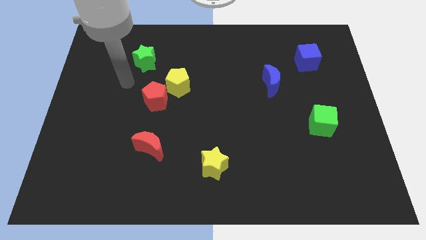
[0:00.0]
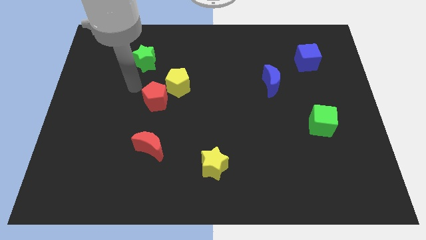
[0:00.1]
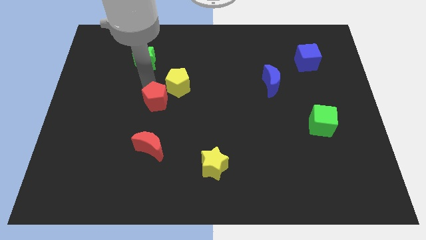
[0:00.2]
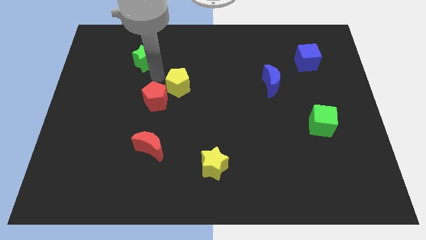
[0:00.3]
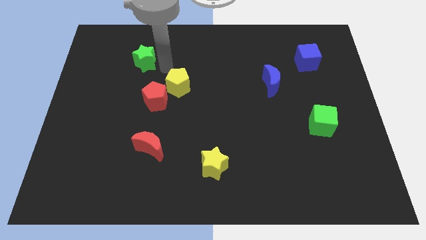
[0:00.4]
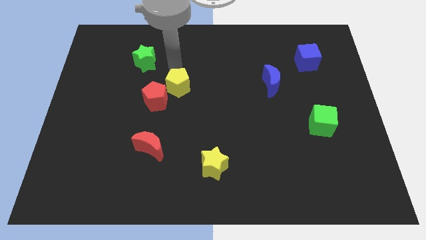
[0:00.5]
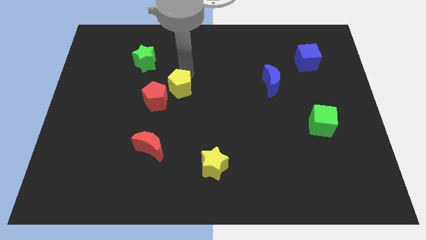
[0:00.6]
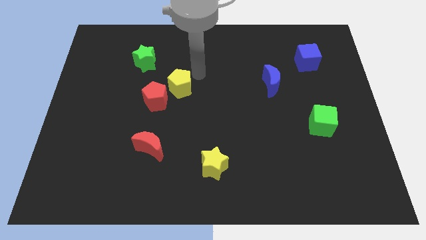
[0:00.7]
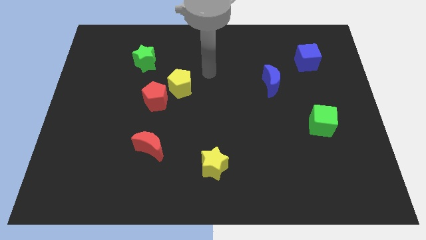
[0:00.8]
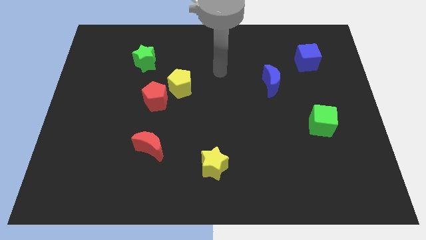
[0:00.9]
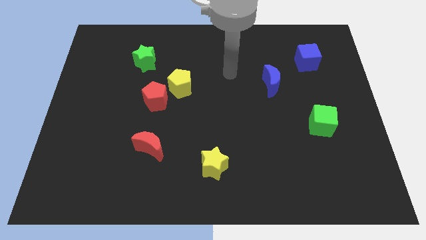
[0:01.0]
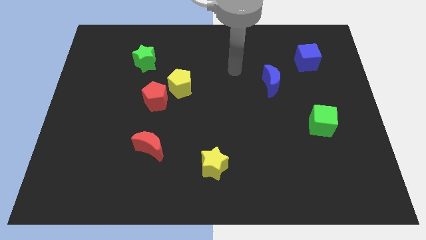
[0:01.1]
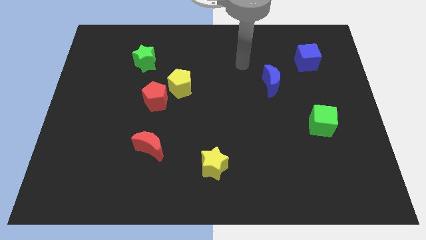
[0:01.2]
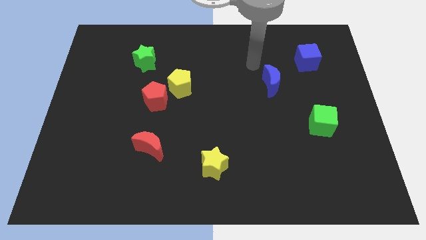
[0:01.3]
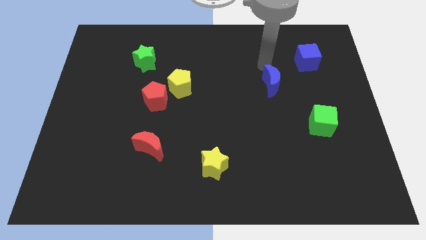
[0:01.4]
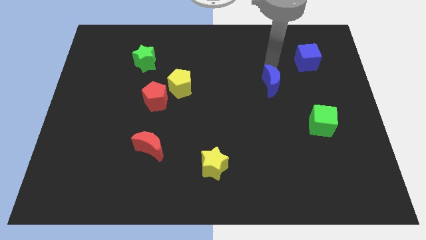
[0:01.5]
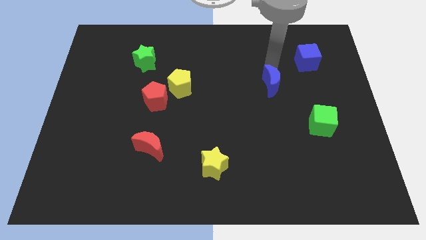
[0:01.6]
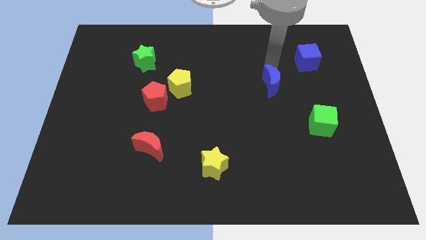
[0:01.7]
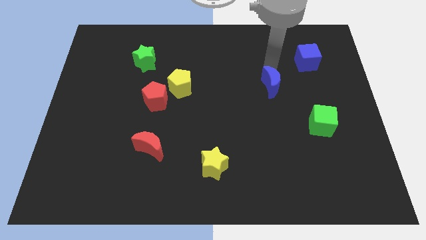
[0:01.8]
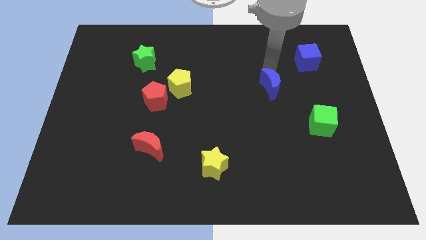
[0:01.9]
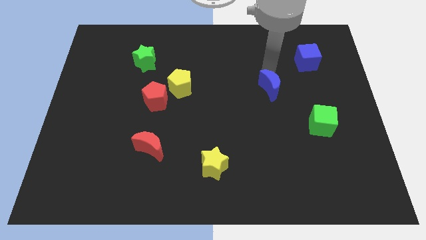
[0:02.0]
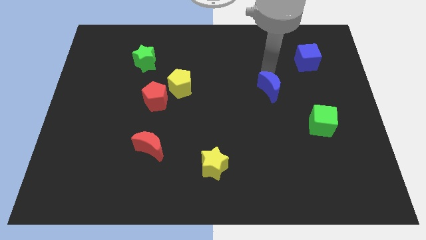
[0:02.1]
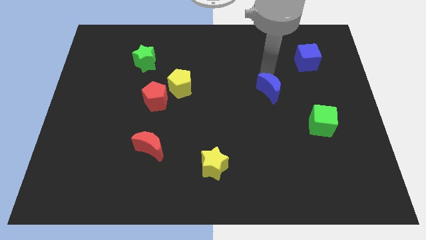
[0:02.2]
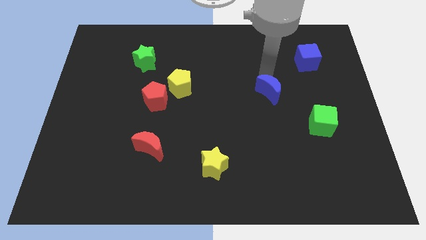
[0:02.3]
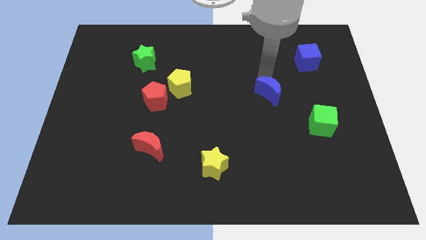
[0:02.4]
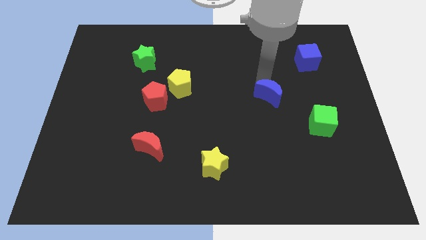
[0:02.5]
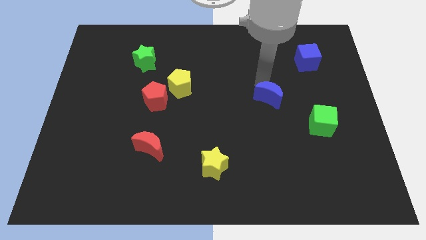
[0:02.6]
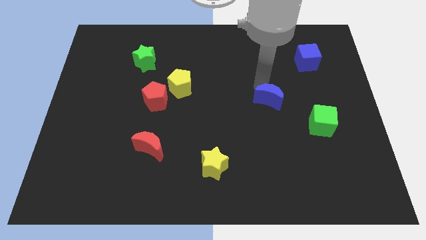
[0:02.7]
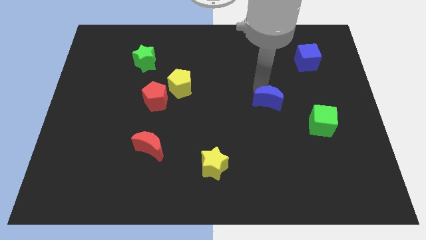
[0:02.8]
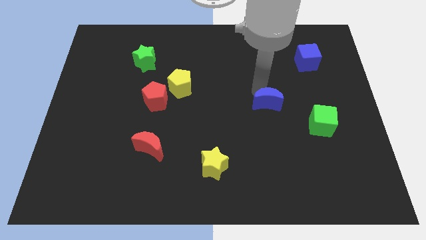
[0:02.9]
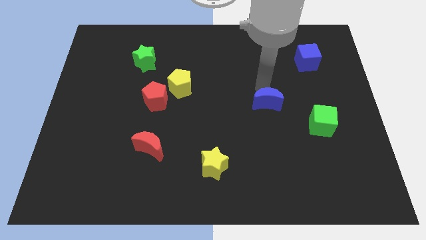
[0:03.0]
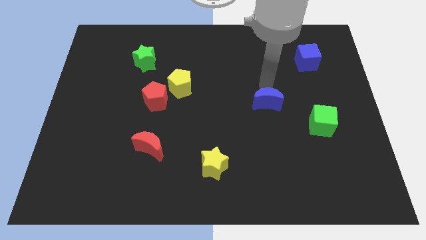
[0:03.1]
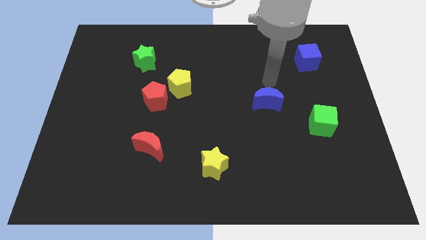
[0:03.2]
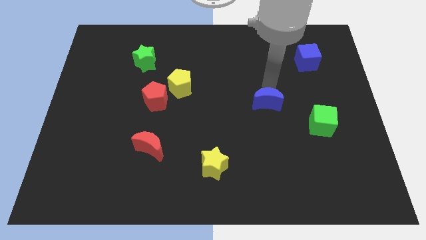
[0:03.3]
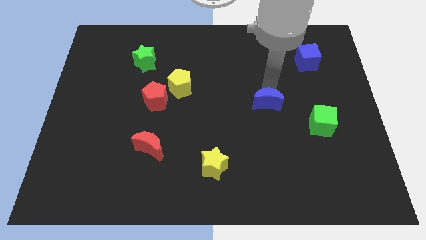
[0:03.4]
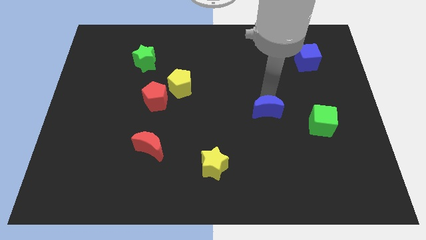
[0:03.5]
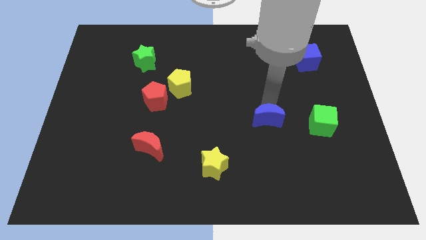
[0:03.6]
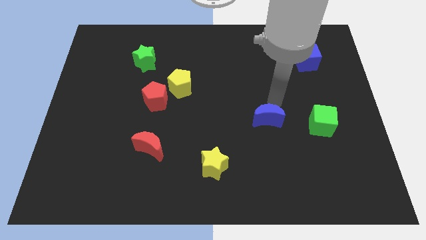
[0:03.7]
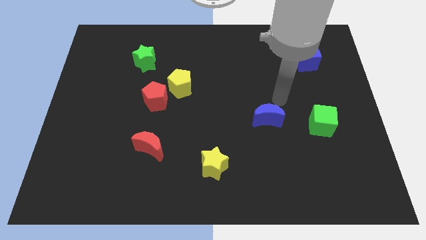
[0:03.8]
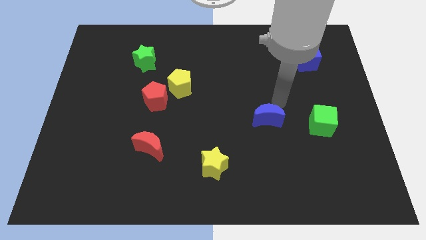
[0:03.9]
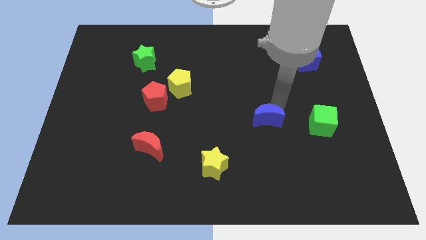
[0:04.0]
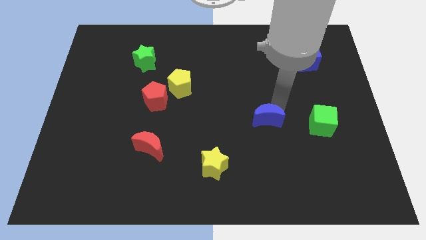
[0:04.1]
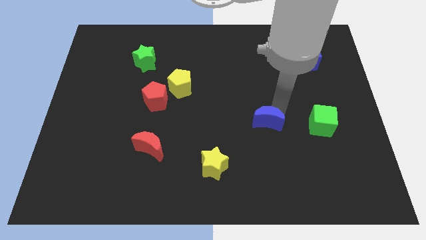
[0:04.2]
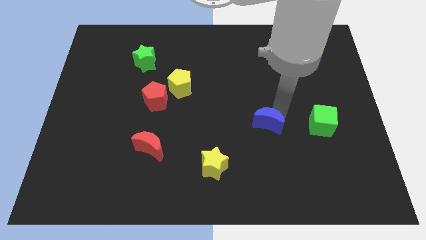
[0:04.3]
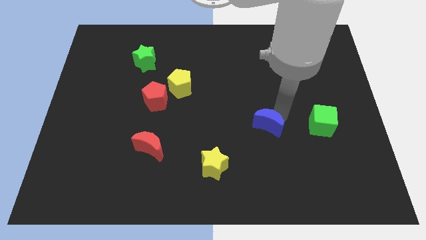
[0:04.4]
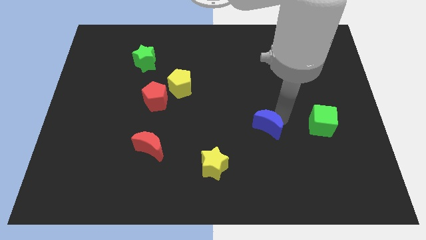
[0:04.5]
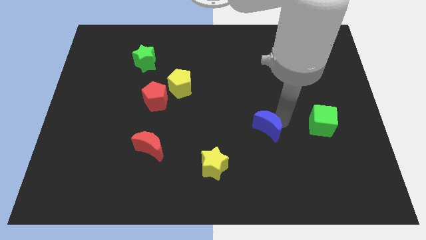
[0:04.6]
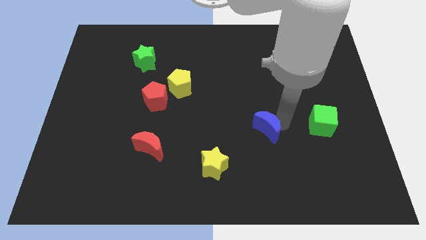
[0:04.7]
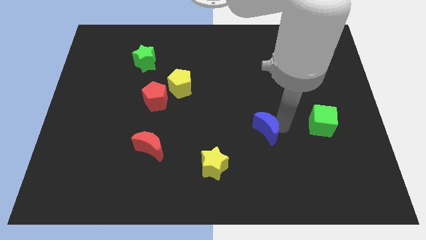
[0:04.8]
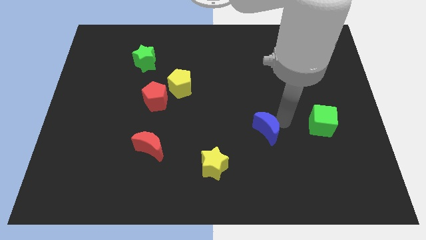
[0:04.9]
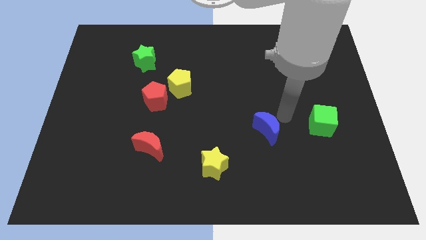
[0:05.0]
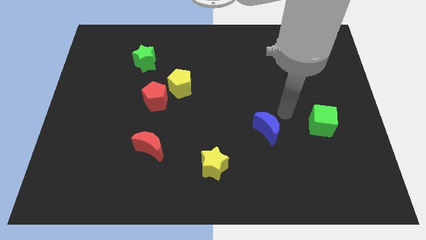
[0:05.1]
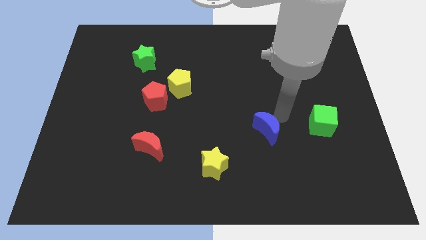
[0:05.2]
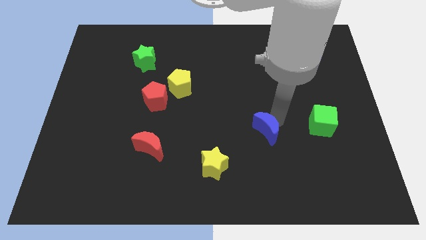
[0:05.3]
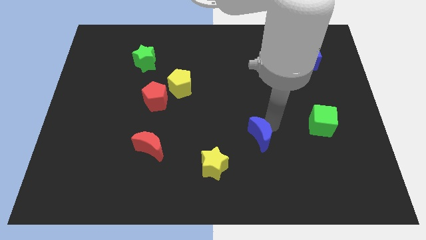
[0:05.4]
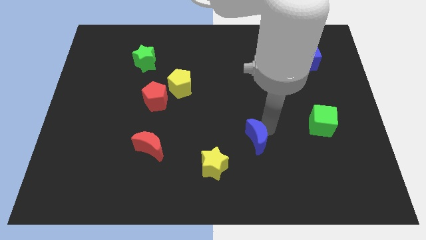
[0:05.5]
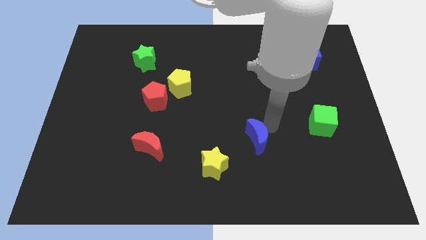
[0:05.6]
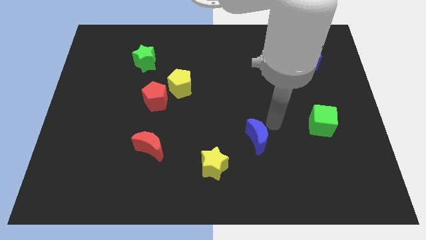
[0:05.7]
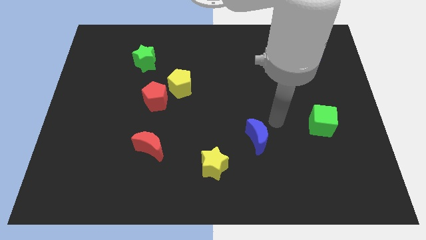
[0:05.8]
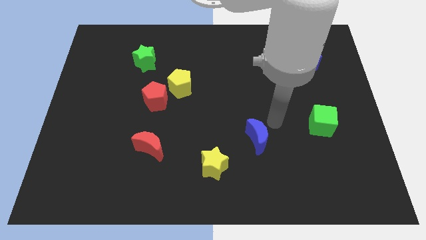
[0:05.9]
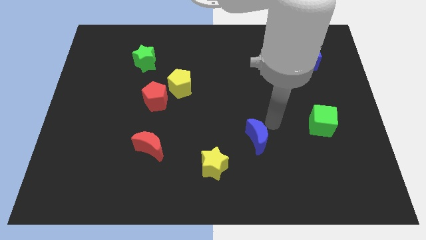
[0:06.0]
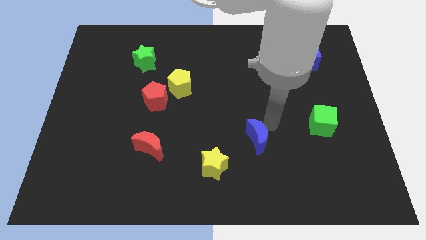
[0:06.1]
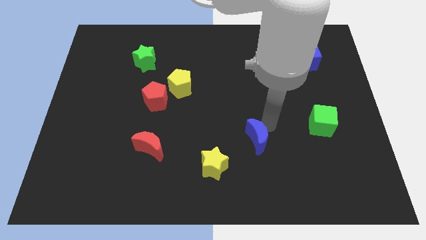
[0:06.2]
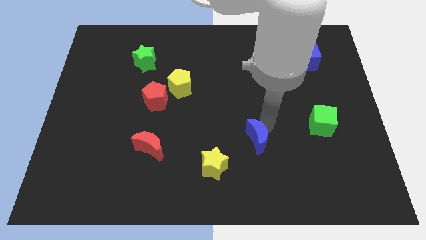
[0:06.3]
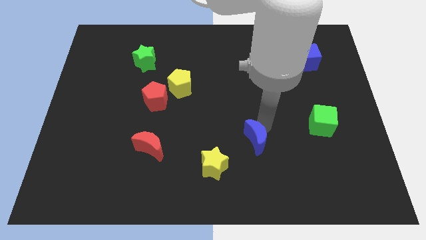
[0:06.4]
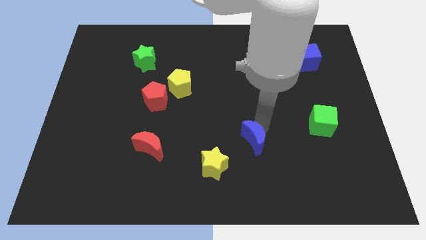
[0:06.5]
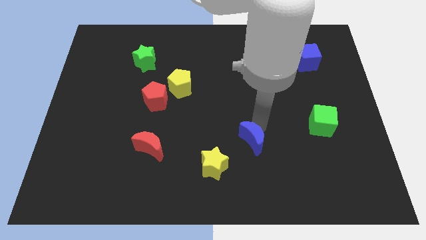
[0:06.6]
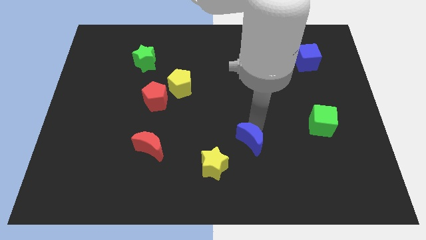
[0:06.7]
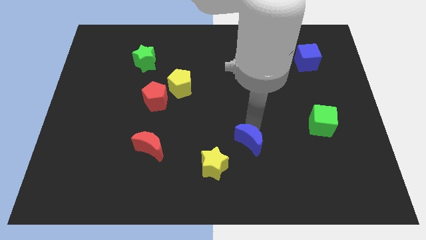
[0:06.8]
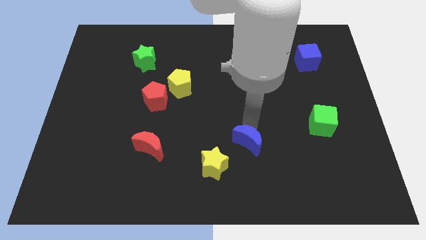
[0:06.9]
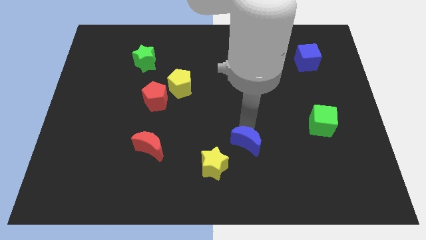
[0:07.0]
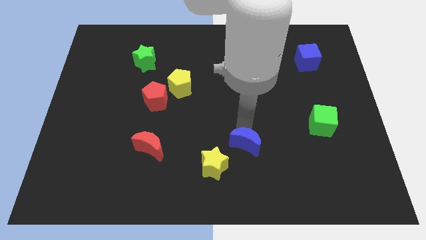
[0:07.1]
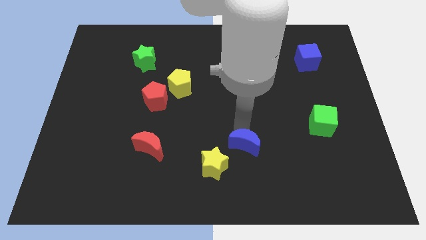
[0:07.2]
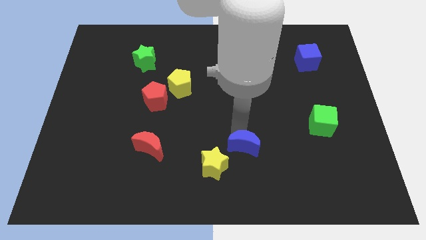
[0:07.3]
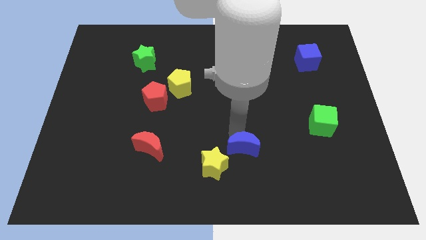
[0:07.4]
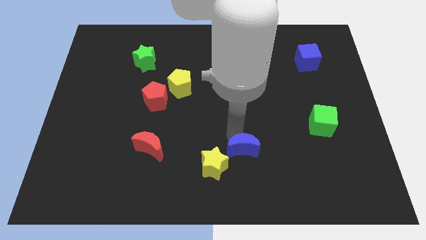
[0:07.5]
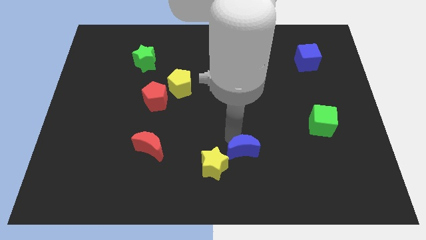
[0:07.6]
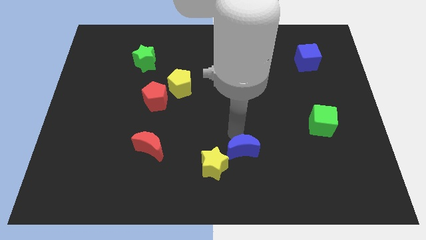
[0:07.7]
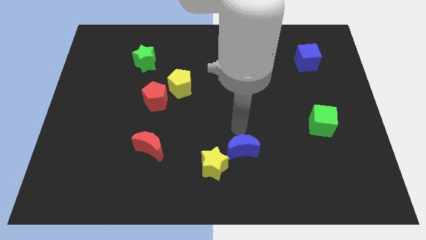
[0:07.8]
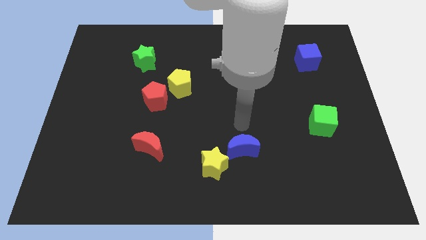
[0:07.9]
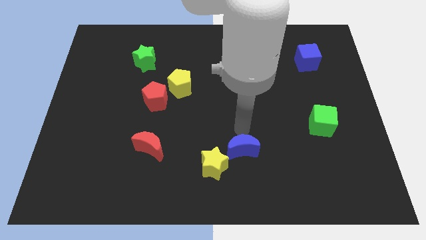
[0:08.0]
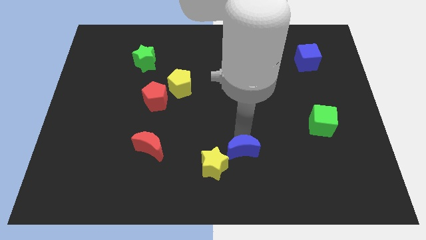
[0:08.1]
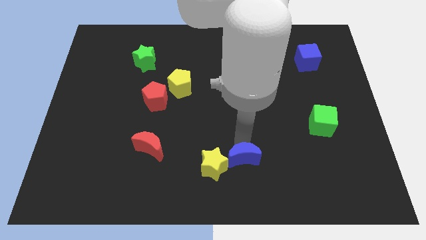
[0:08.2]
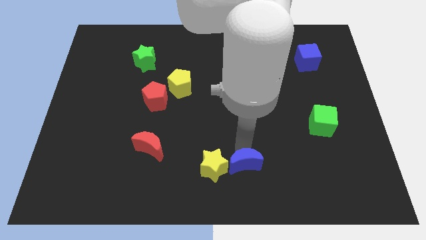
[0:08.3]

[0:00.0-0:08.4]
move the blue moon to the bottom
